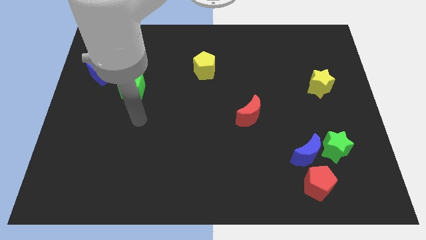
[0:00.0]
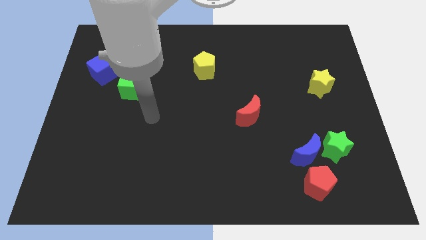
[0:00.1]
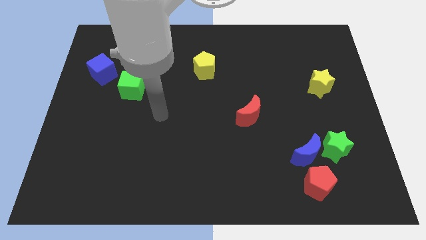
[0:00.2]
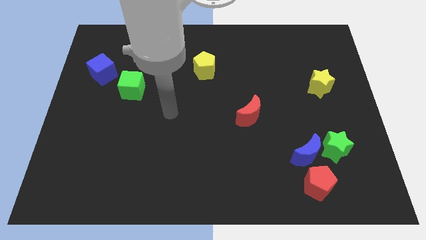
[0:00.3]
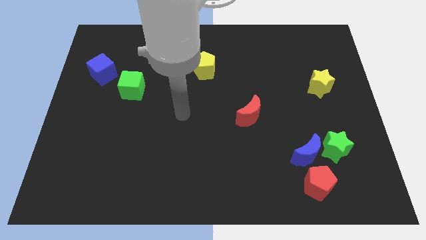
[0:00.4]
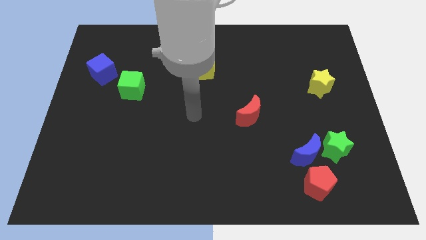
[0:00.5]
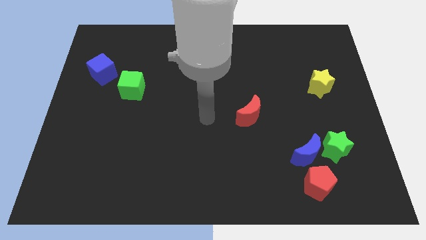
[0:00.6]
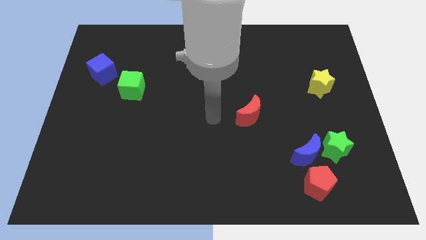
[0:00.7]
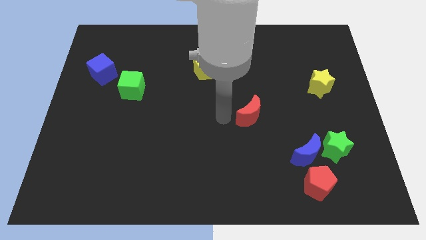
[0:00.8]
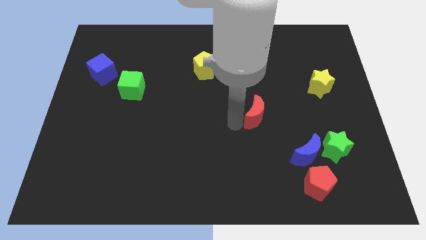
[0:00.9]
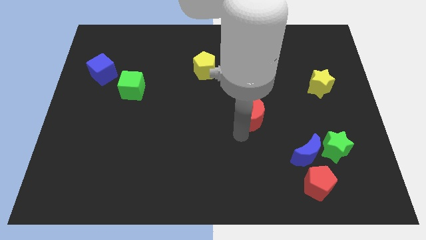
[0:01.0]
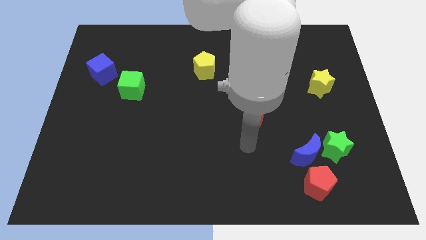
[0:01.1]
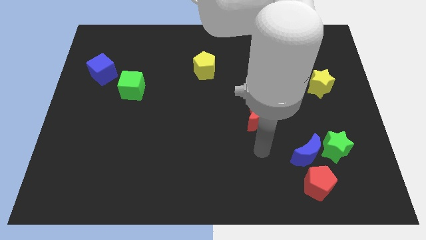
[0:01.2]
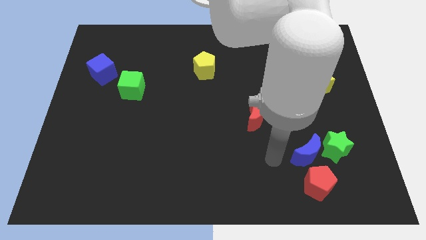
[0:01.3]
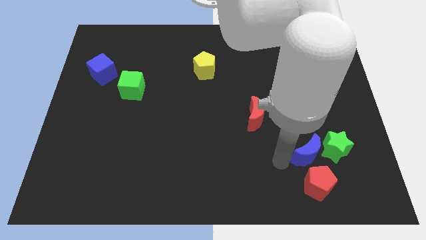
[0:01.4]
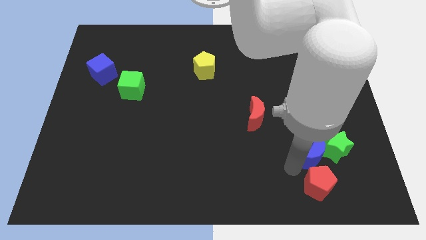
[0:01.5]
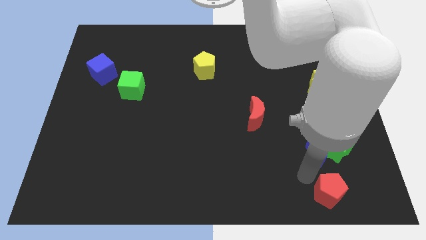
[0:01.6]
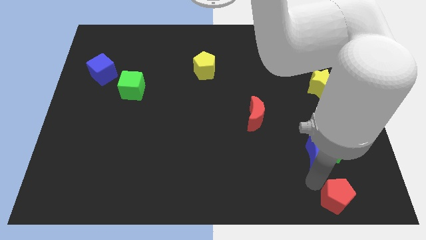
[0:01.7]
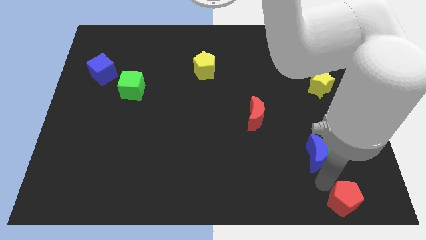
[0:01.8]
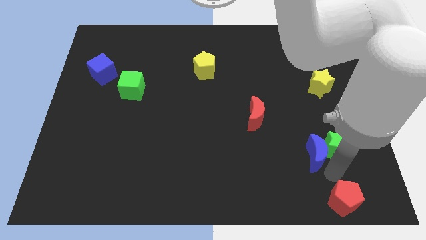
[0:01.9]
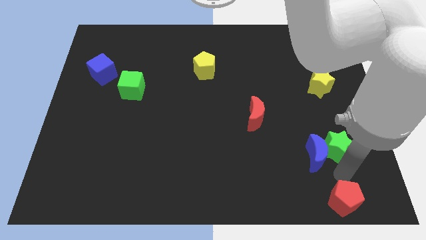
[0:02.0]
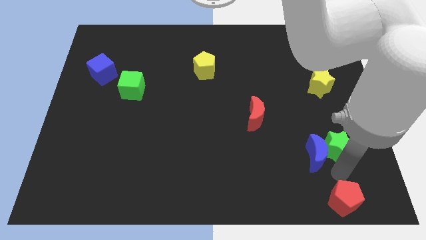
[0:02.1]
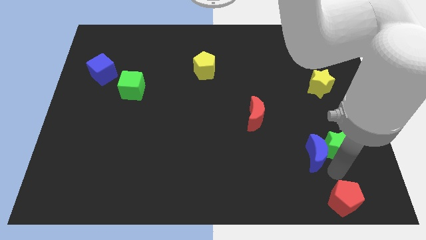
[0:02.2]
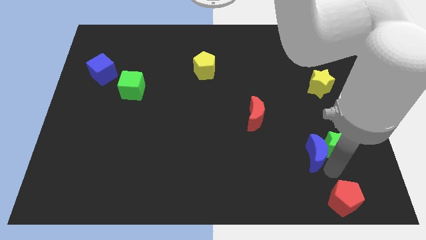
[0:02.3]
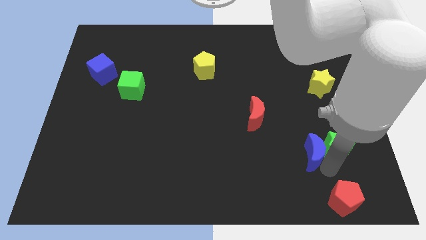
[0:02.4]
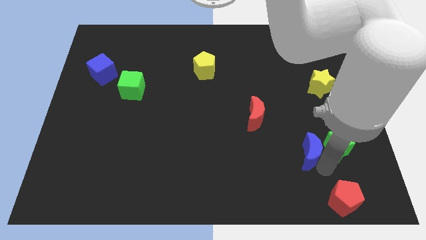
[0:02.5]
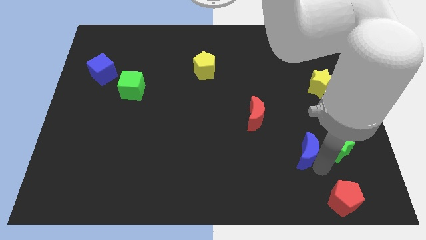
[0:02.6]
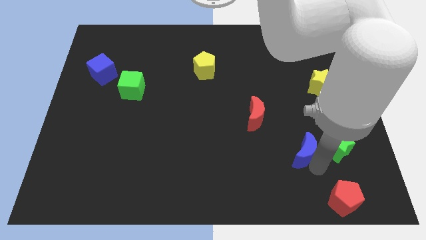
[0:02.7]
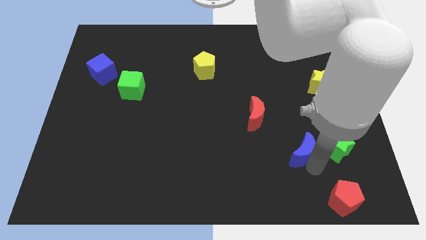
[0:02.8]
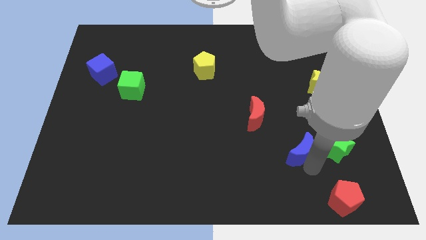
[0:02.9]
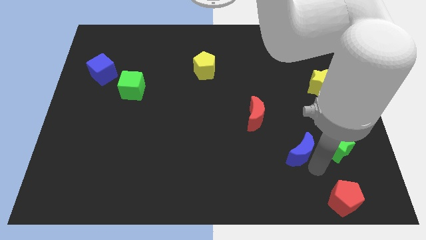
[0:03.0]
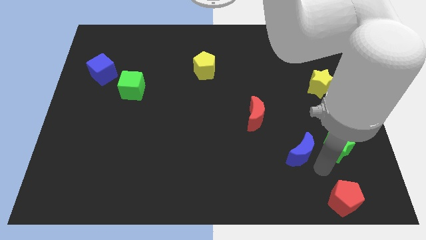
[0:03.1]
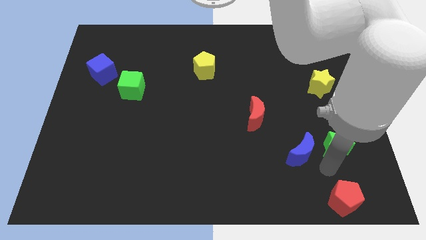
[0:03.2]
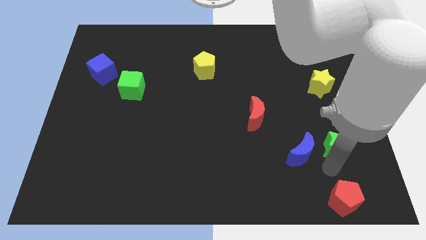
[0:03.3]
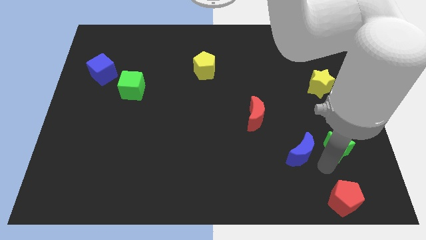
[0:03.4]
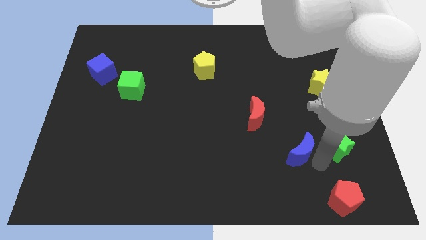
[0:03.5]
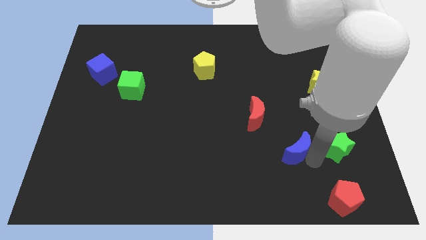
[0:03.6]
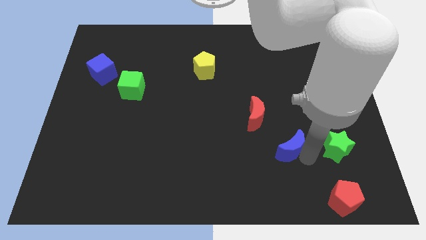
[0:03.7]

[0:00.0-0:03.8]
pull the blue moon apart from the green star and red pentagon

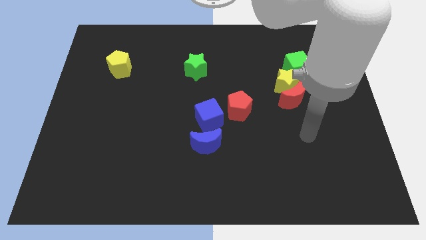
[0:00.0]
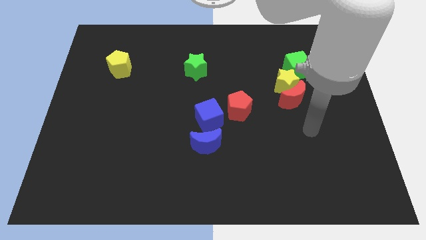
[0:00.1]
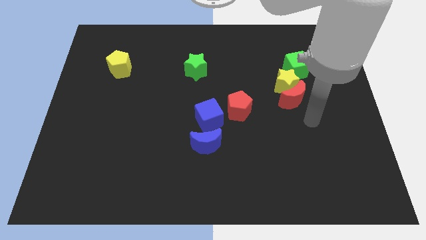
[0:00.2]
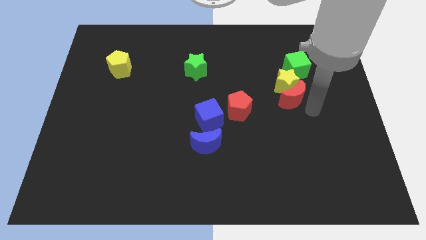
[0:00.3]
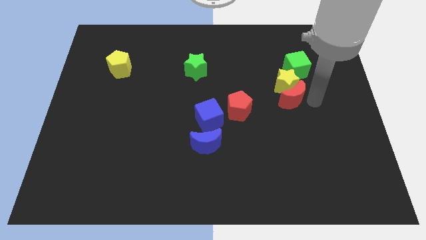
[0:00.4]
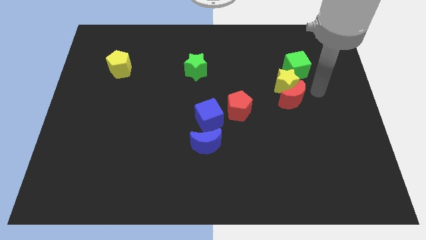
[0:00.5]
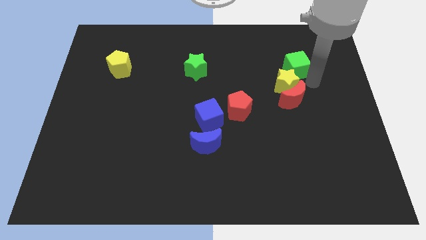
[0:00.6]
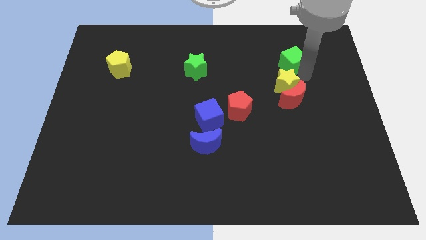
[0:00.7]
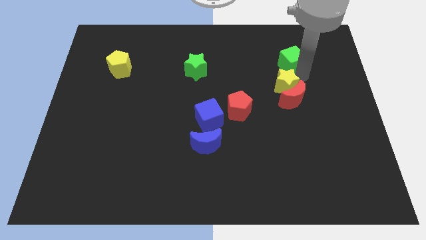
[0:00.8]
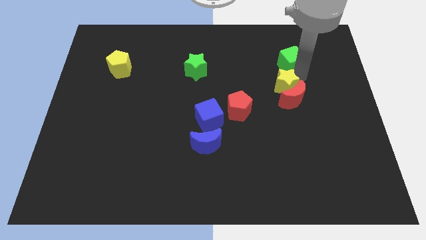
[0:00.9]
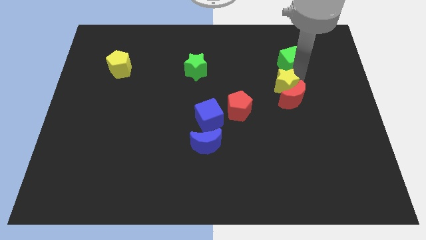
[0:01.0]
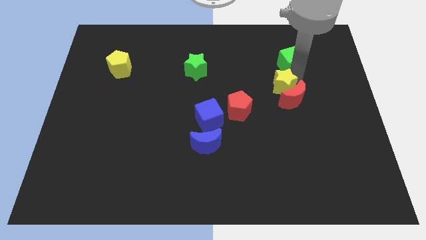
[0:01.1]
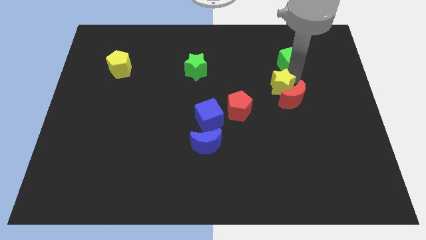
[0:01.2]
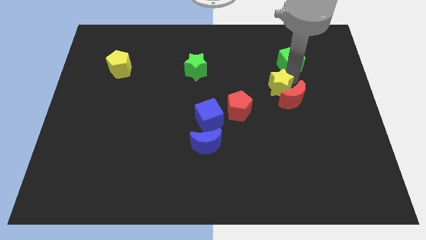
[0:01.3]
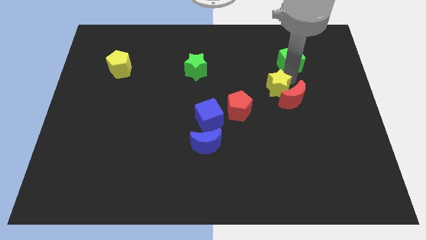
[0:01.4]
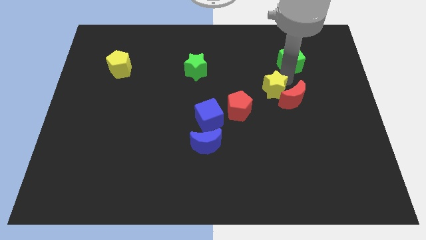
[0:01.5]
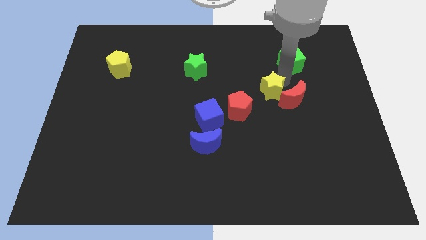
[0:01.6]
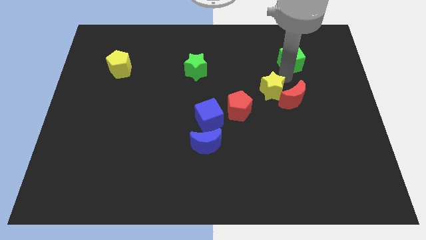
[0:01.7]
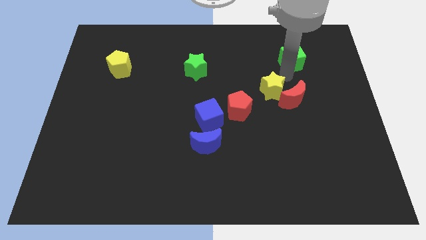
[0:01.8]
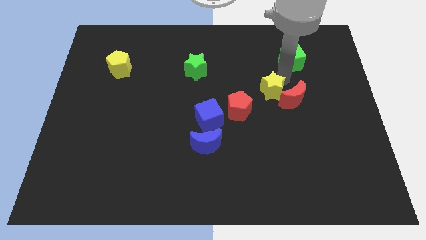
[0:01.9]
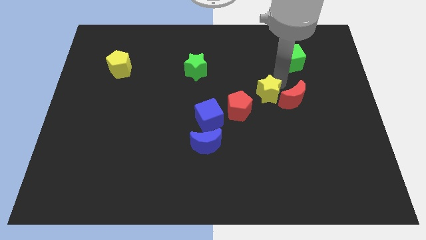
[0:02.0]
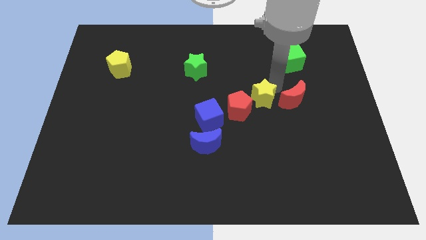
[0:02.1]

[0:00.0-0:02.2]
pull the yellow star apart from the red moon and green cube

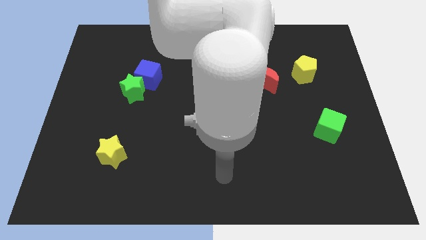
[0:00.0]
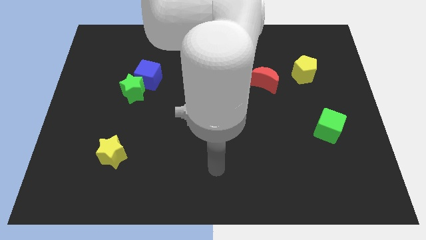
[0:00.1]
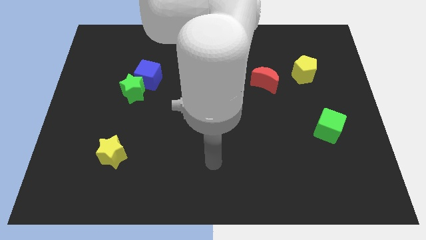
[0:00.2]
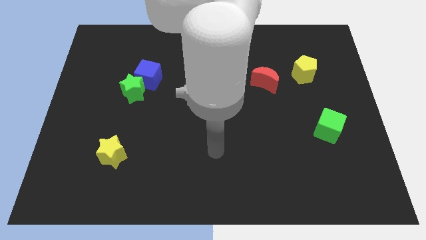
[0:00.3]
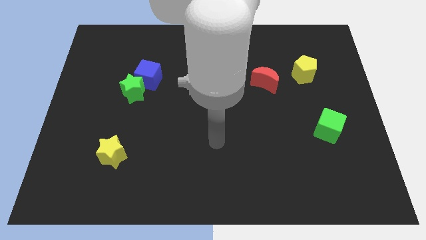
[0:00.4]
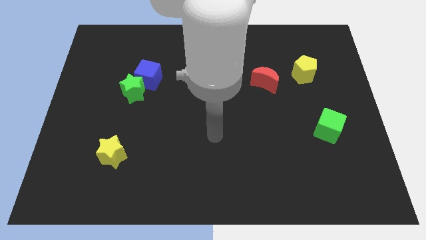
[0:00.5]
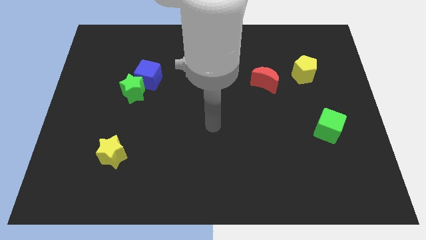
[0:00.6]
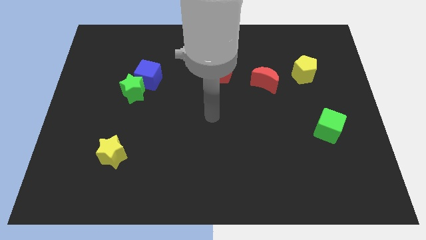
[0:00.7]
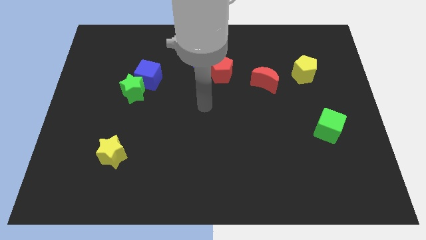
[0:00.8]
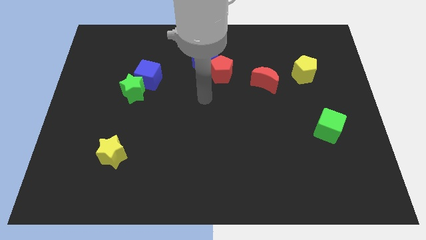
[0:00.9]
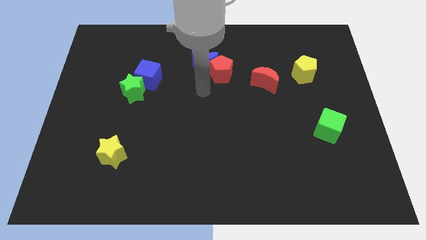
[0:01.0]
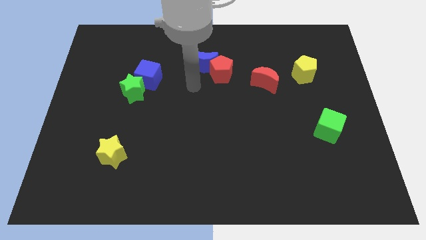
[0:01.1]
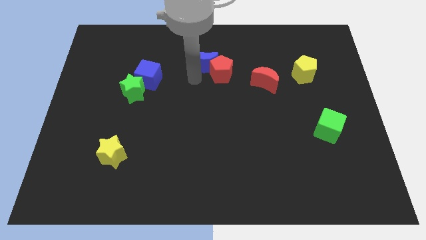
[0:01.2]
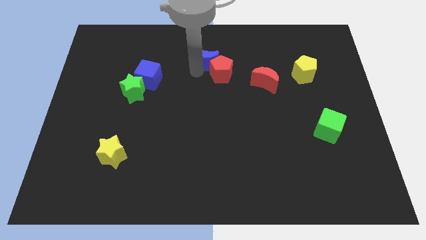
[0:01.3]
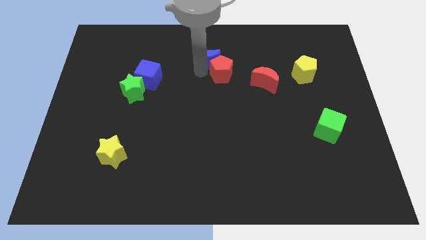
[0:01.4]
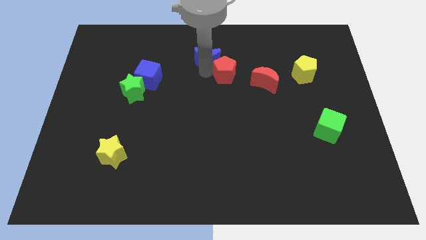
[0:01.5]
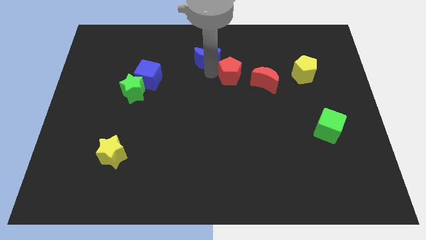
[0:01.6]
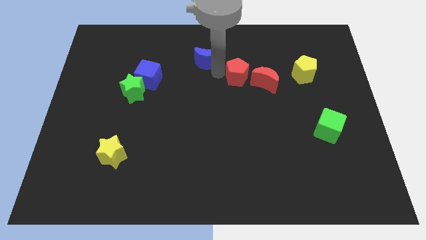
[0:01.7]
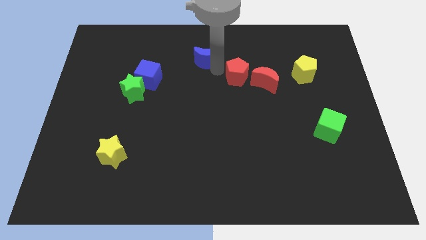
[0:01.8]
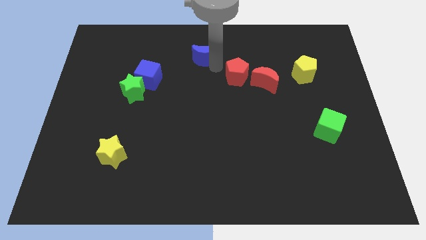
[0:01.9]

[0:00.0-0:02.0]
pull the red pentagon apart from the blue moon

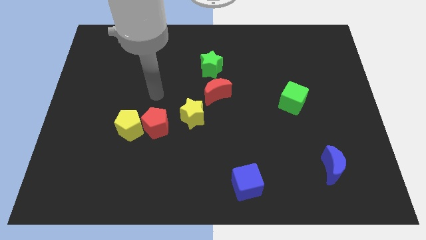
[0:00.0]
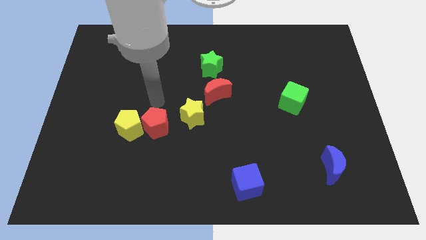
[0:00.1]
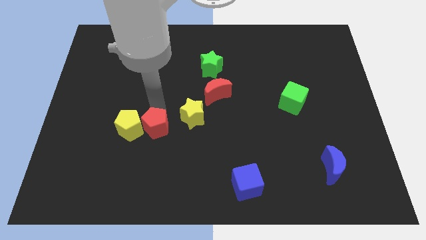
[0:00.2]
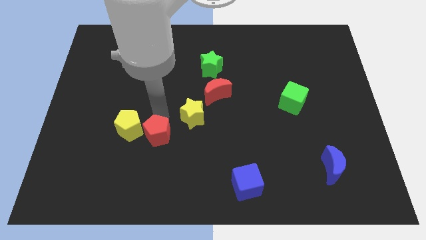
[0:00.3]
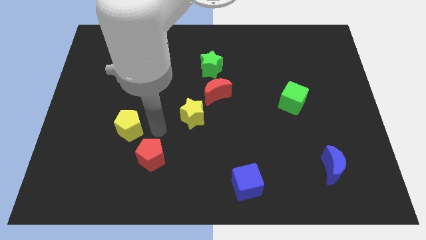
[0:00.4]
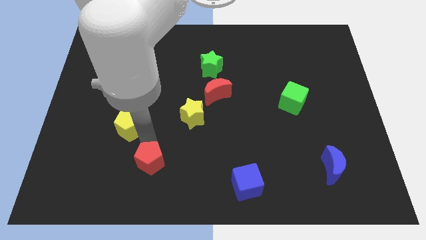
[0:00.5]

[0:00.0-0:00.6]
move the yellow pentagon away from the red pentagon

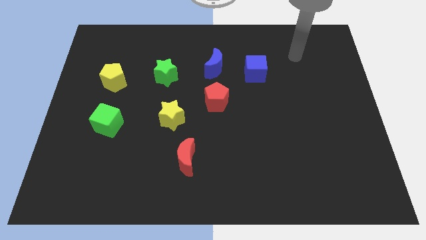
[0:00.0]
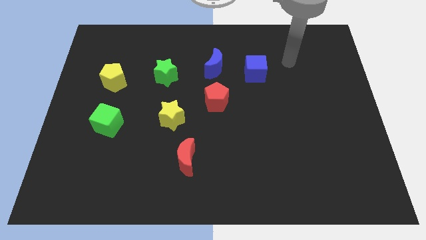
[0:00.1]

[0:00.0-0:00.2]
move the blue moon away from the blue cube

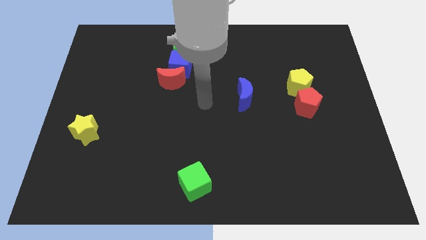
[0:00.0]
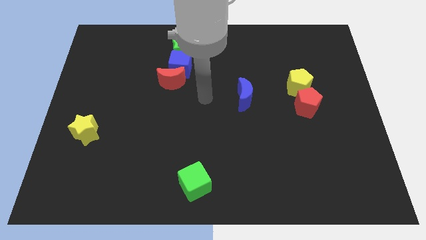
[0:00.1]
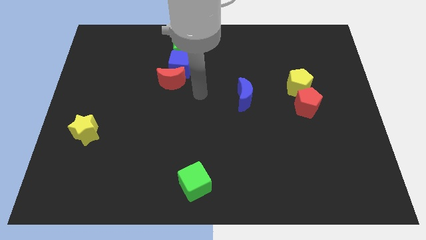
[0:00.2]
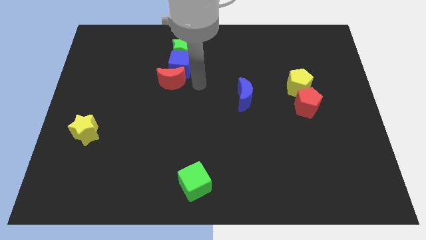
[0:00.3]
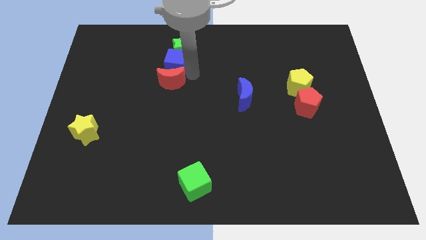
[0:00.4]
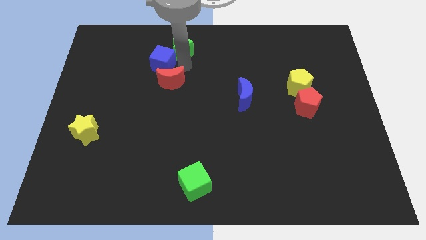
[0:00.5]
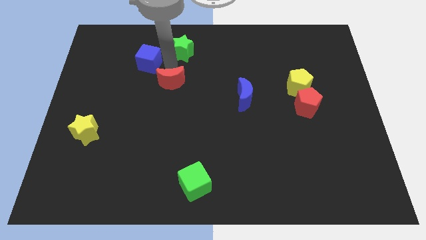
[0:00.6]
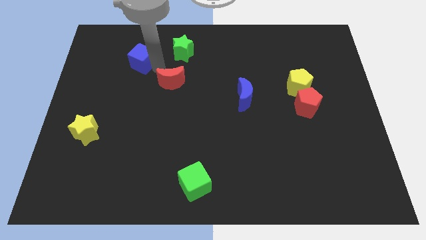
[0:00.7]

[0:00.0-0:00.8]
move the red moon away from the blue cube
